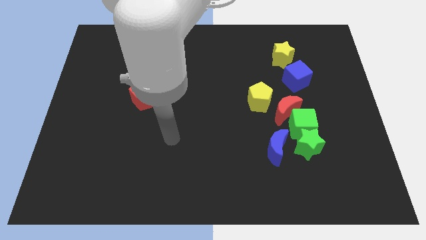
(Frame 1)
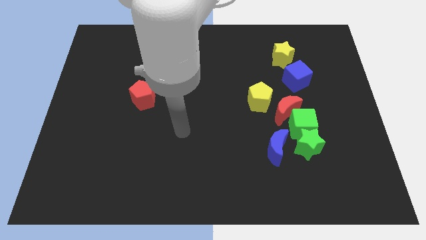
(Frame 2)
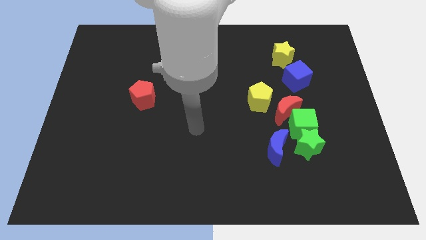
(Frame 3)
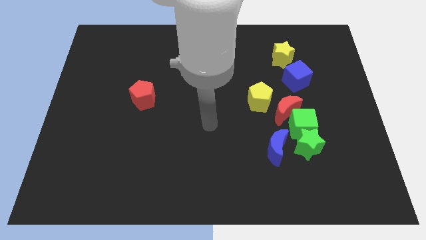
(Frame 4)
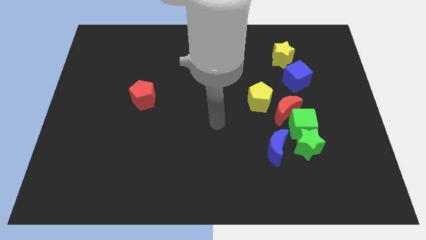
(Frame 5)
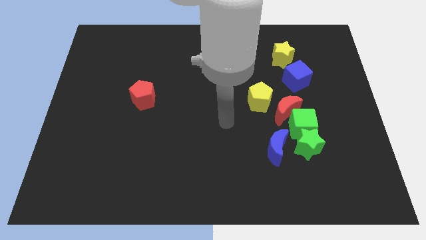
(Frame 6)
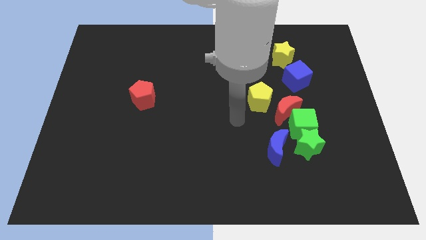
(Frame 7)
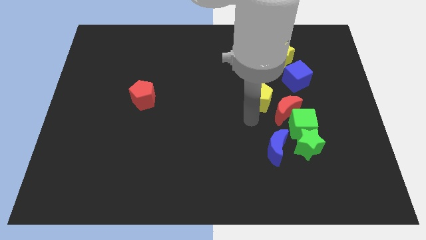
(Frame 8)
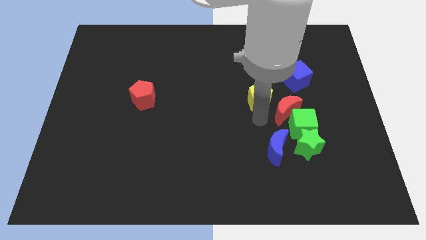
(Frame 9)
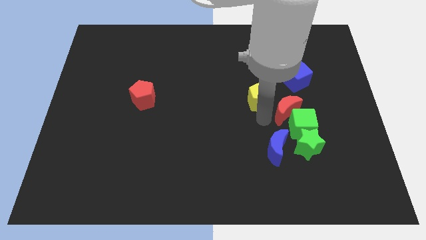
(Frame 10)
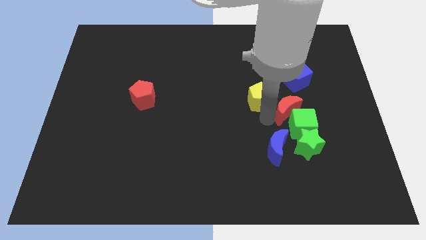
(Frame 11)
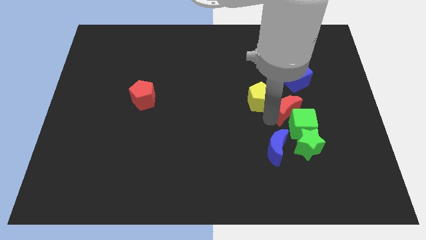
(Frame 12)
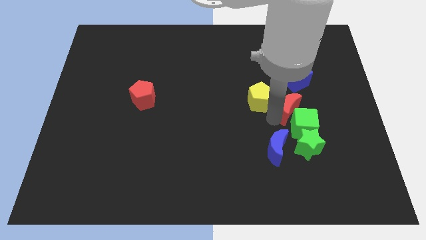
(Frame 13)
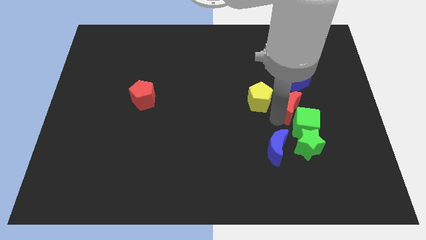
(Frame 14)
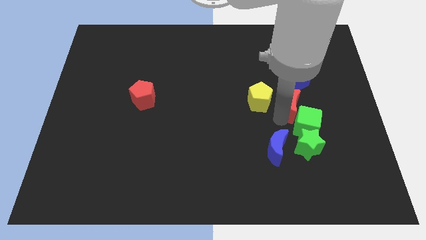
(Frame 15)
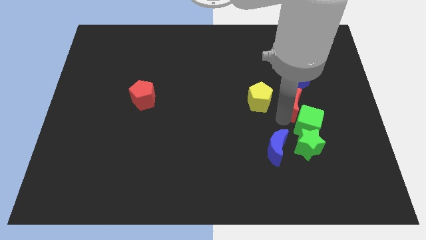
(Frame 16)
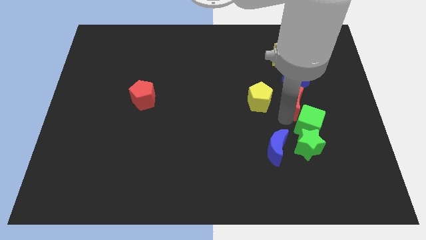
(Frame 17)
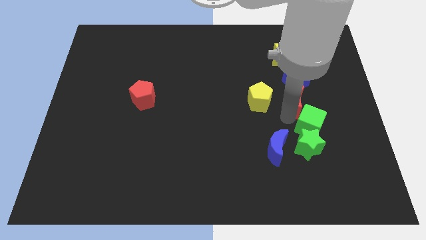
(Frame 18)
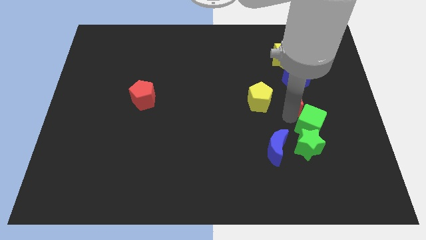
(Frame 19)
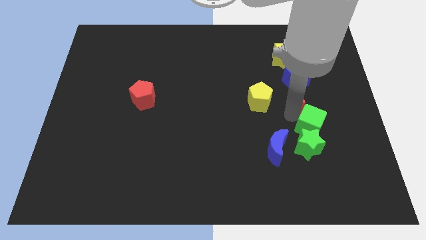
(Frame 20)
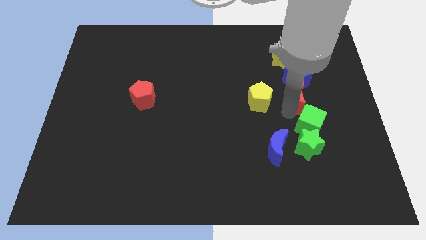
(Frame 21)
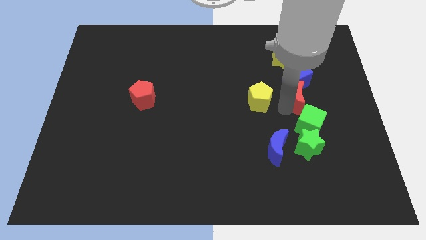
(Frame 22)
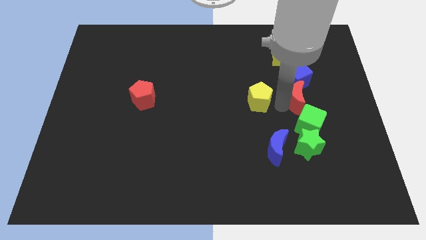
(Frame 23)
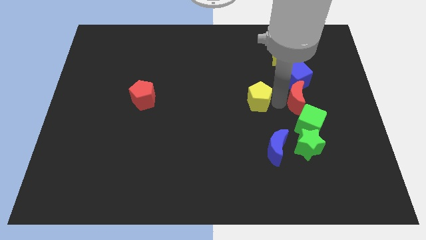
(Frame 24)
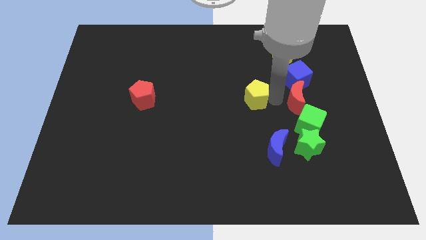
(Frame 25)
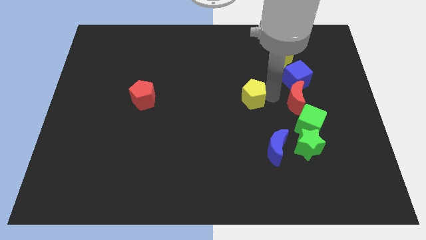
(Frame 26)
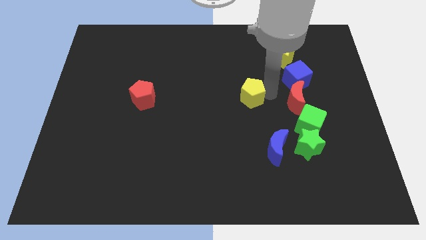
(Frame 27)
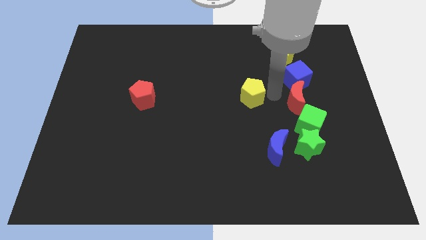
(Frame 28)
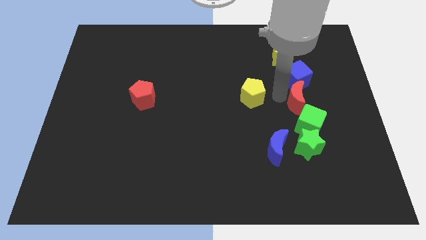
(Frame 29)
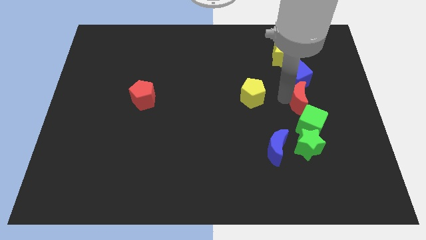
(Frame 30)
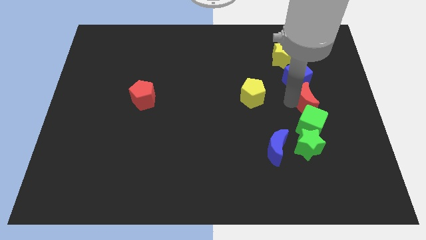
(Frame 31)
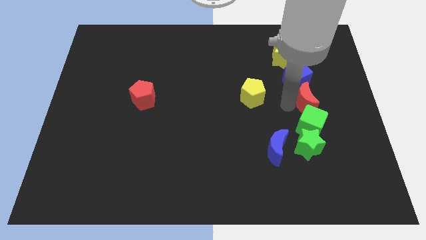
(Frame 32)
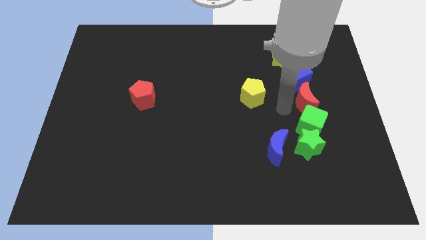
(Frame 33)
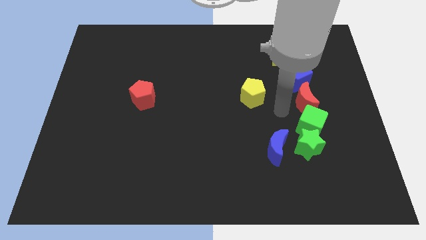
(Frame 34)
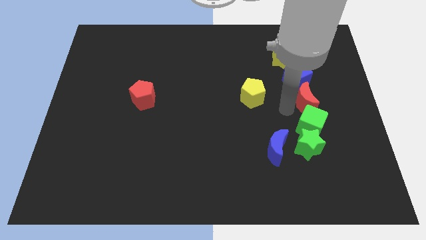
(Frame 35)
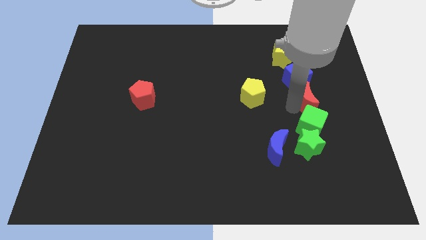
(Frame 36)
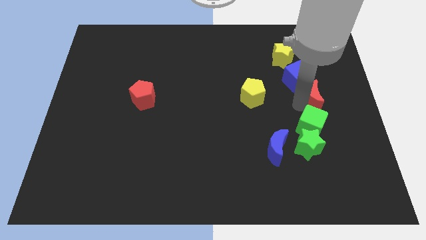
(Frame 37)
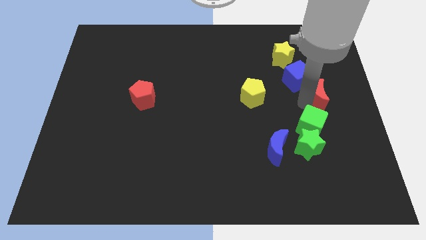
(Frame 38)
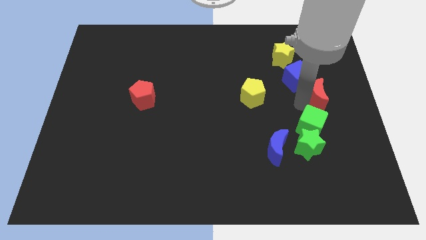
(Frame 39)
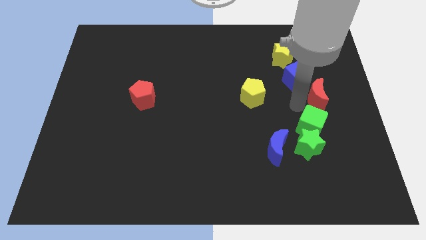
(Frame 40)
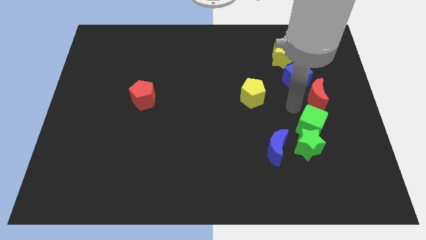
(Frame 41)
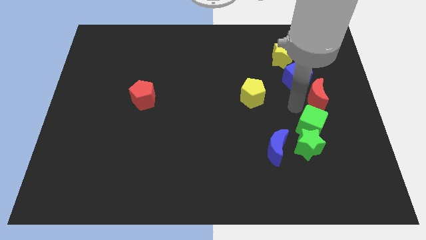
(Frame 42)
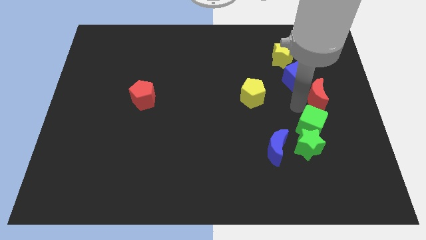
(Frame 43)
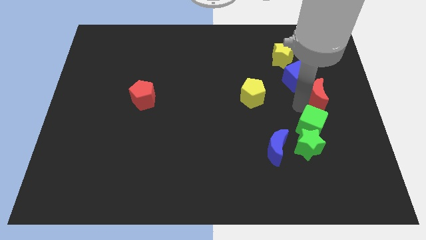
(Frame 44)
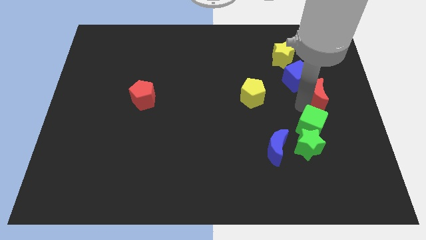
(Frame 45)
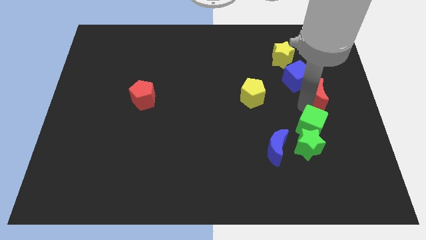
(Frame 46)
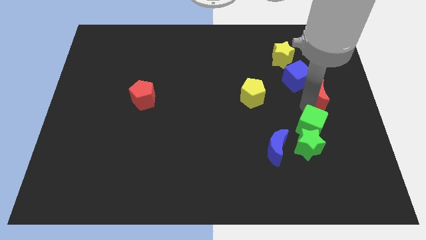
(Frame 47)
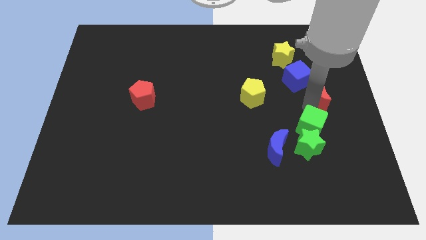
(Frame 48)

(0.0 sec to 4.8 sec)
move the red moon away from the green cube and yellow pentagon

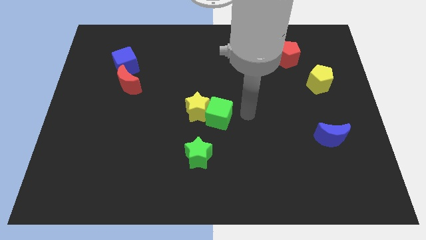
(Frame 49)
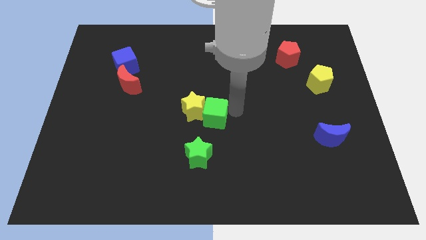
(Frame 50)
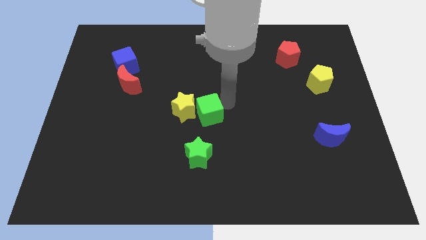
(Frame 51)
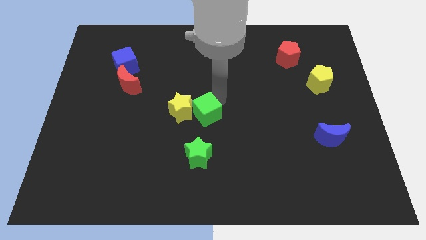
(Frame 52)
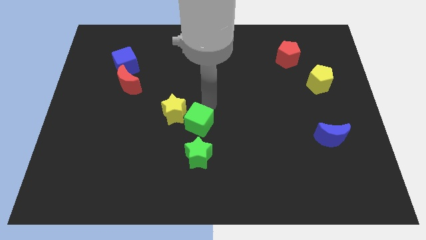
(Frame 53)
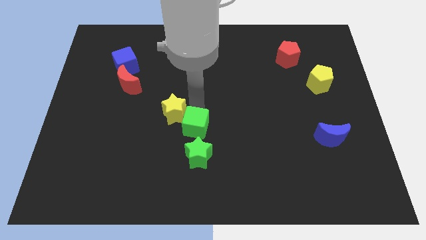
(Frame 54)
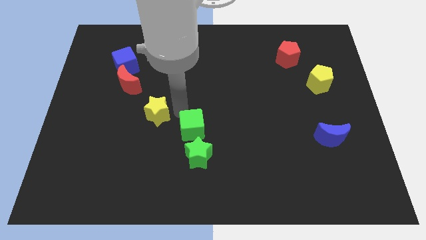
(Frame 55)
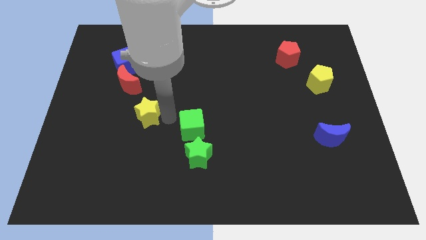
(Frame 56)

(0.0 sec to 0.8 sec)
move the green cube away from the yellow star

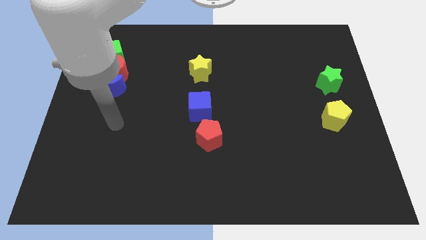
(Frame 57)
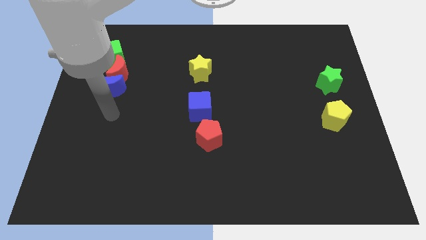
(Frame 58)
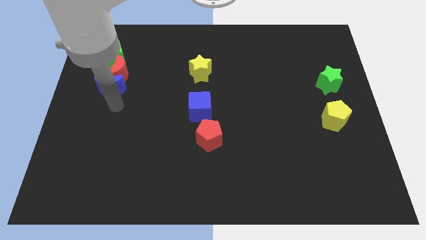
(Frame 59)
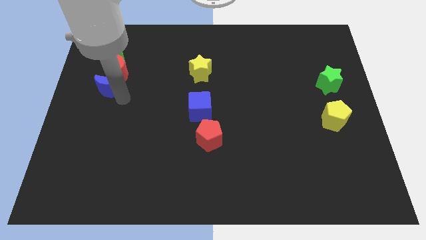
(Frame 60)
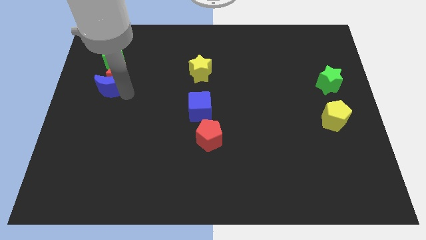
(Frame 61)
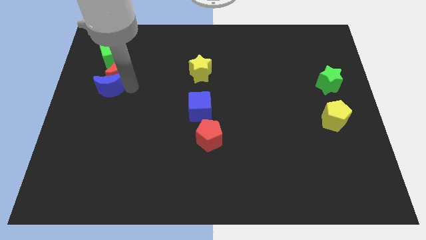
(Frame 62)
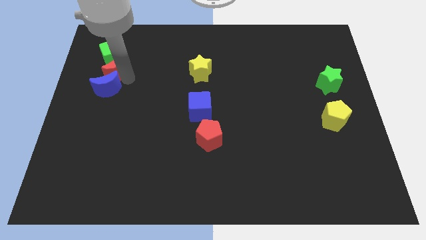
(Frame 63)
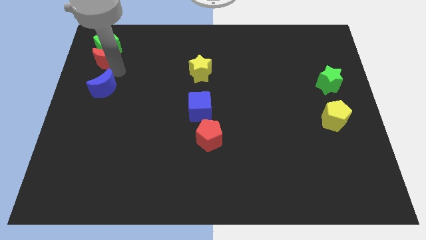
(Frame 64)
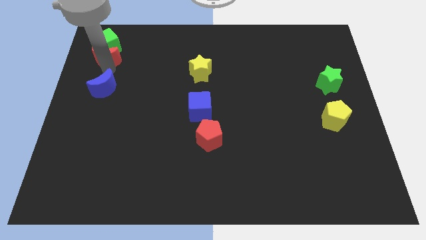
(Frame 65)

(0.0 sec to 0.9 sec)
pull the blue moon apart from the red moon

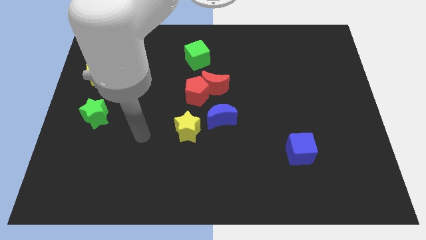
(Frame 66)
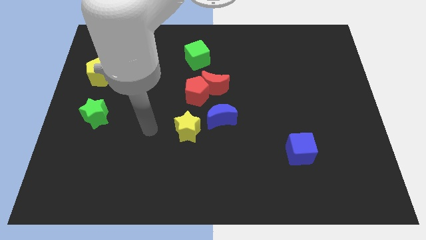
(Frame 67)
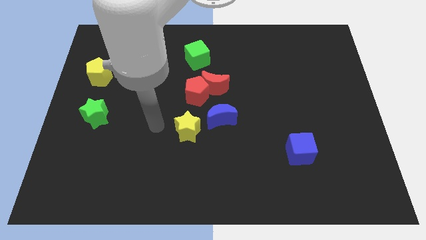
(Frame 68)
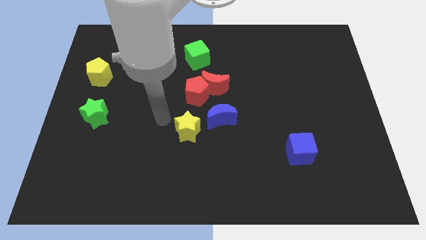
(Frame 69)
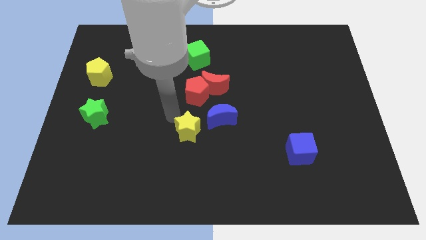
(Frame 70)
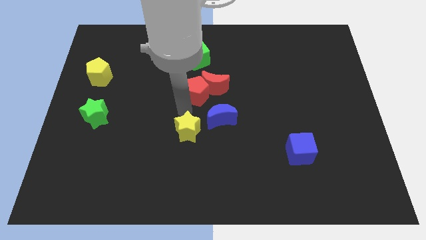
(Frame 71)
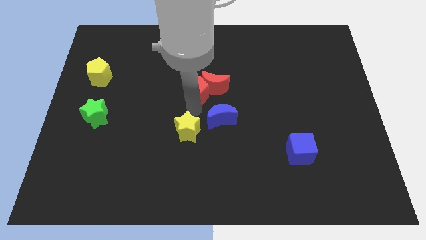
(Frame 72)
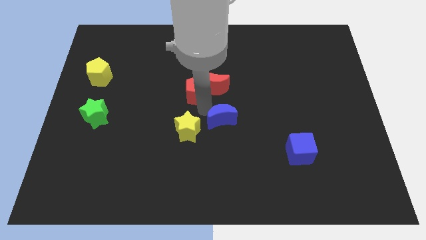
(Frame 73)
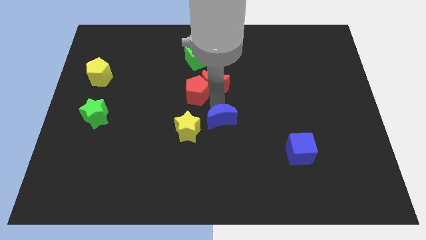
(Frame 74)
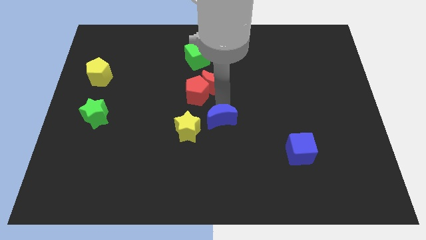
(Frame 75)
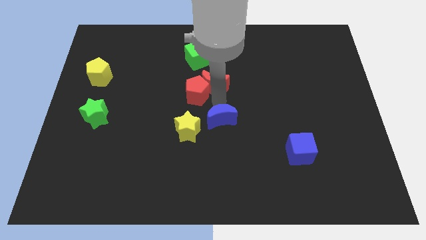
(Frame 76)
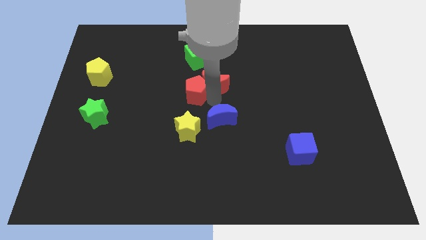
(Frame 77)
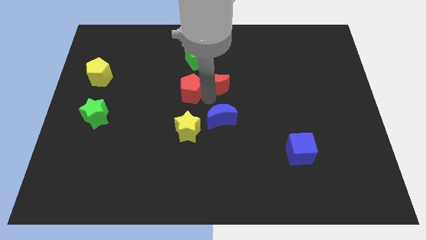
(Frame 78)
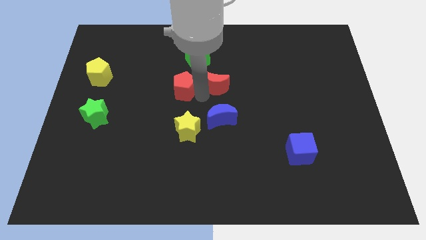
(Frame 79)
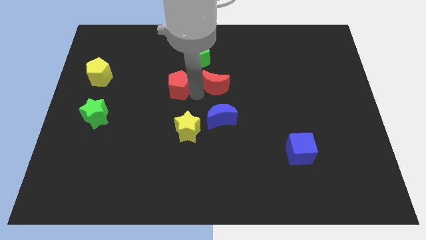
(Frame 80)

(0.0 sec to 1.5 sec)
move the red pentagon away from the red moon and blue moon

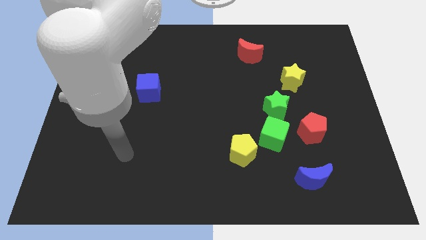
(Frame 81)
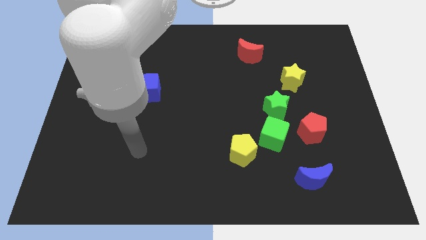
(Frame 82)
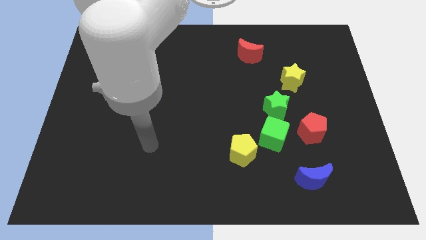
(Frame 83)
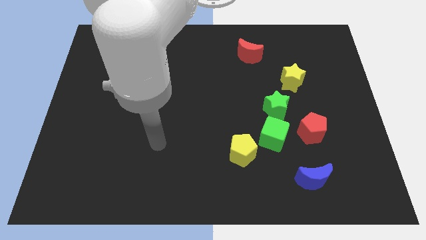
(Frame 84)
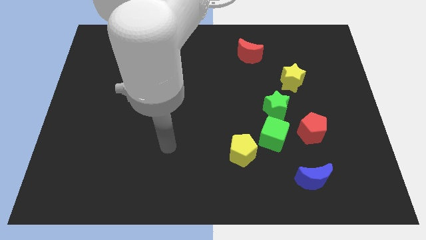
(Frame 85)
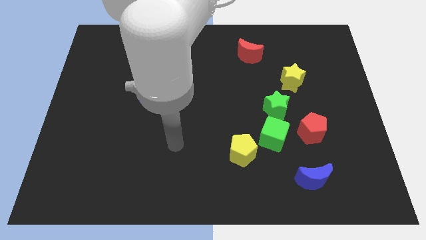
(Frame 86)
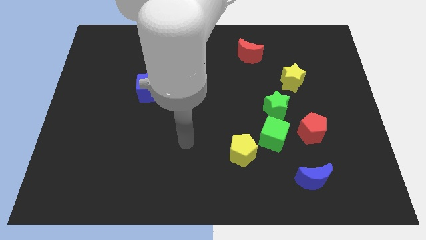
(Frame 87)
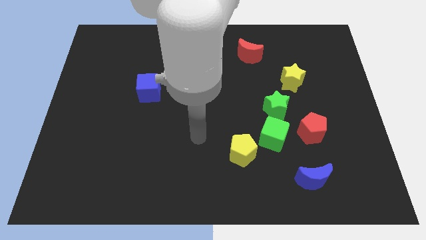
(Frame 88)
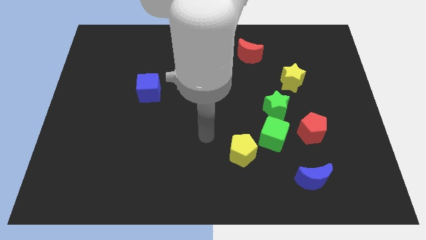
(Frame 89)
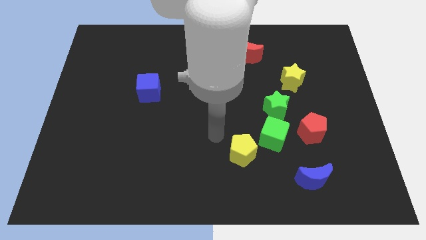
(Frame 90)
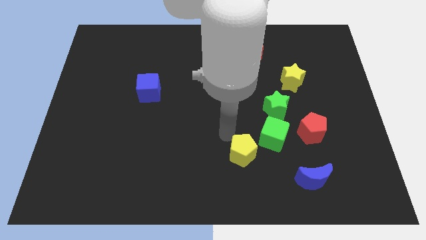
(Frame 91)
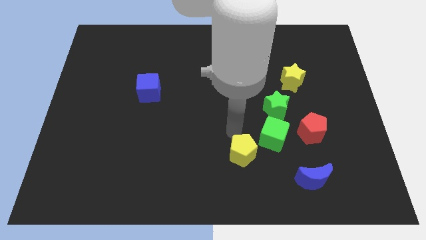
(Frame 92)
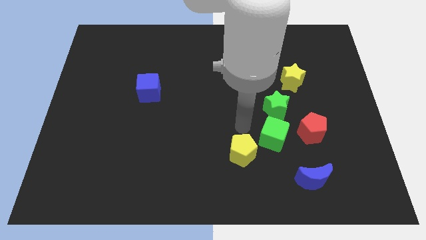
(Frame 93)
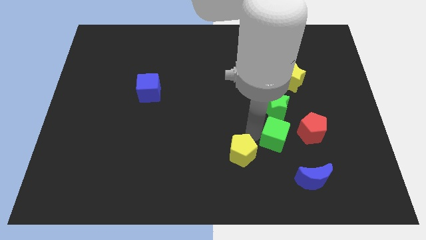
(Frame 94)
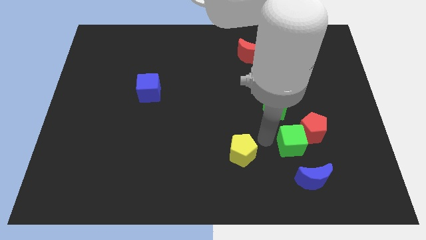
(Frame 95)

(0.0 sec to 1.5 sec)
move the yellow pentagon away from the green cube
